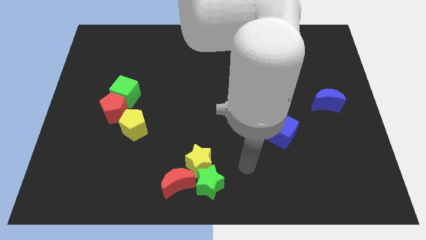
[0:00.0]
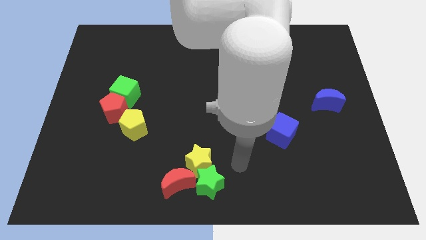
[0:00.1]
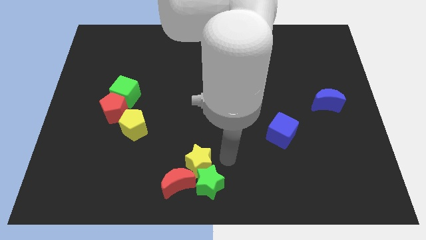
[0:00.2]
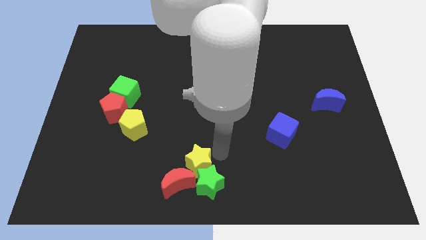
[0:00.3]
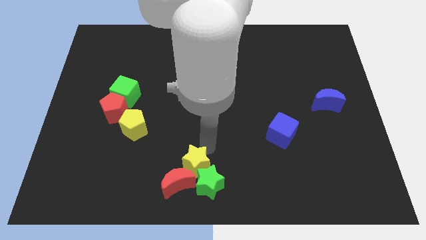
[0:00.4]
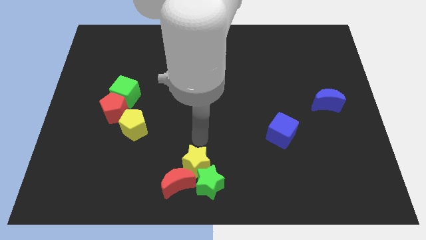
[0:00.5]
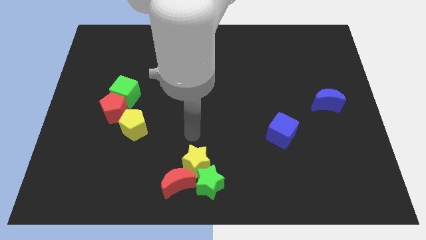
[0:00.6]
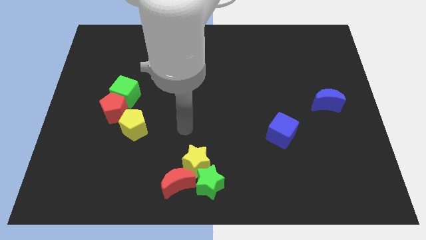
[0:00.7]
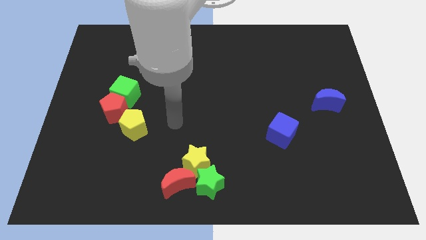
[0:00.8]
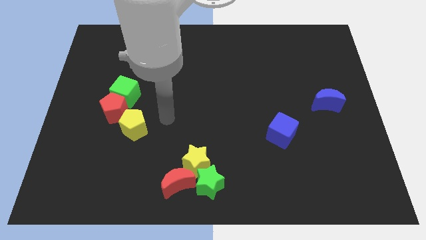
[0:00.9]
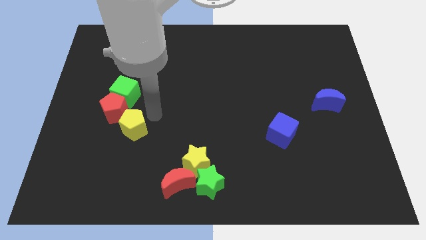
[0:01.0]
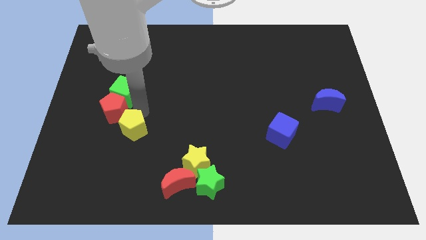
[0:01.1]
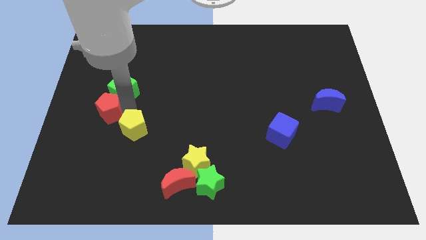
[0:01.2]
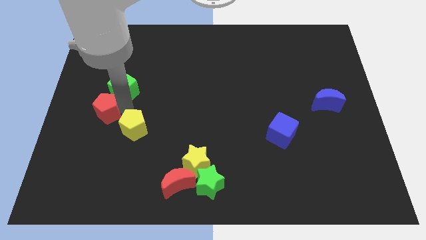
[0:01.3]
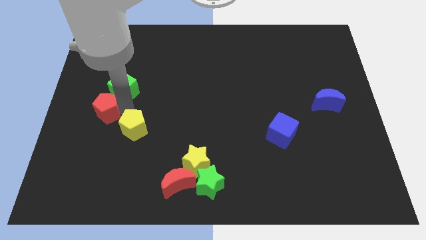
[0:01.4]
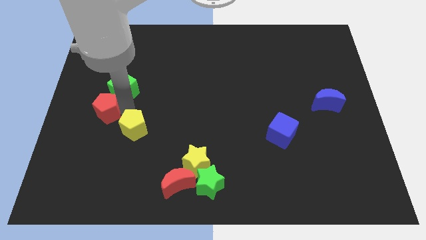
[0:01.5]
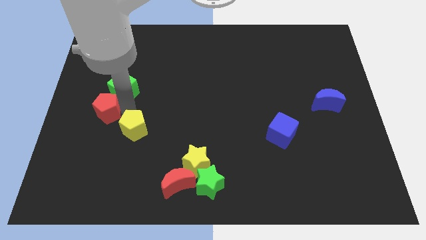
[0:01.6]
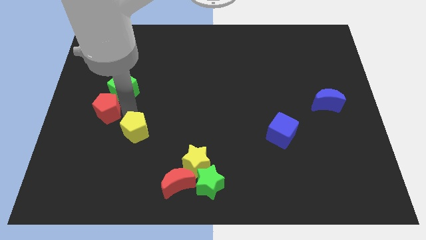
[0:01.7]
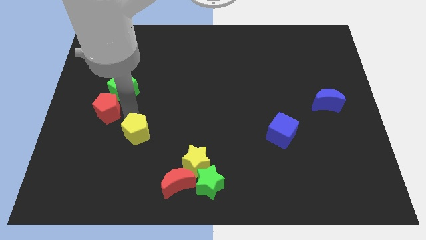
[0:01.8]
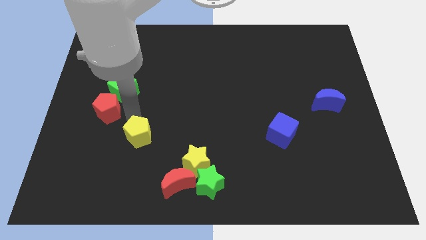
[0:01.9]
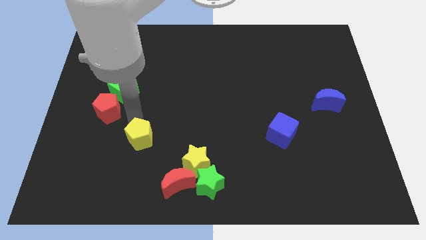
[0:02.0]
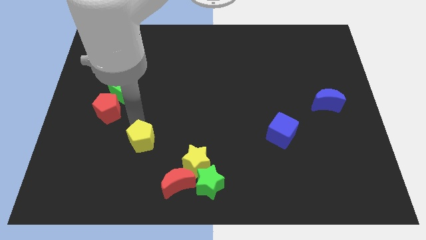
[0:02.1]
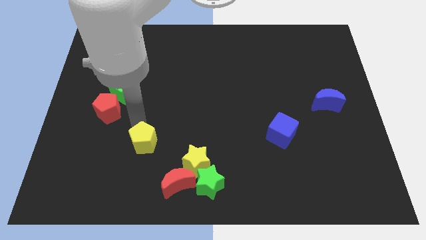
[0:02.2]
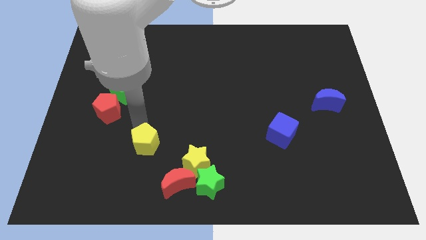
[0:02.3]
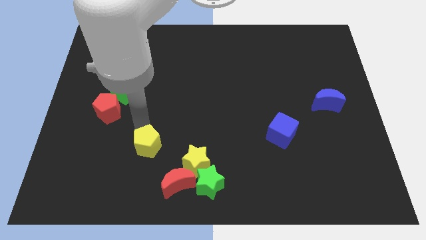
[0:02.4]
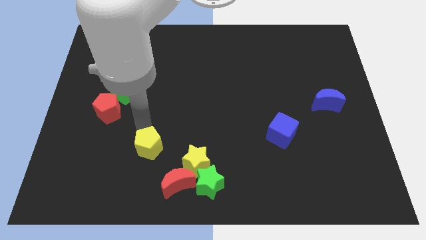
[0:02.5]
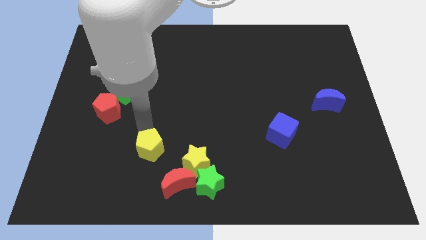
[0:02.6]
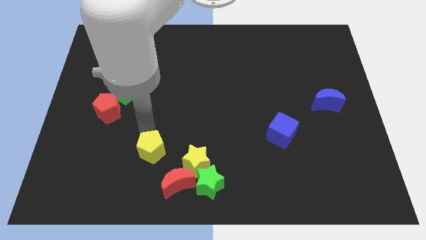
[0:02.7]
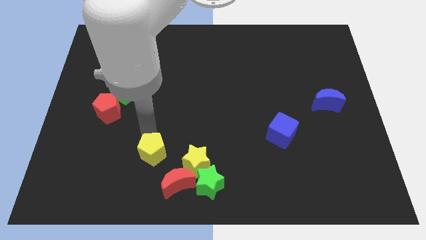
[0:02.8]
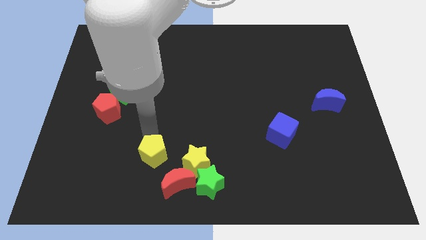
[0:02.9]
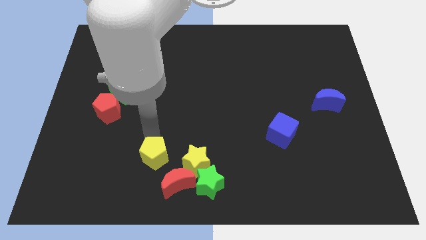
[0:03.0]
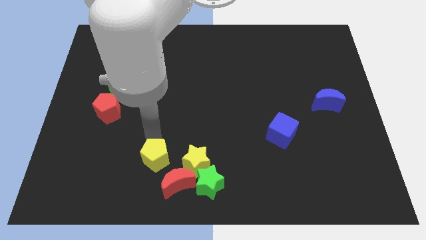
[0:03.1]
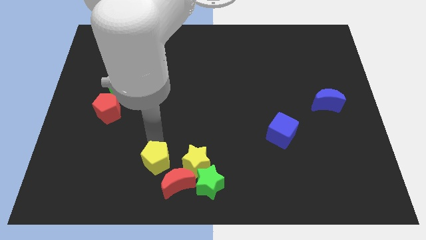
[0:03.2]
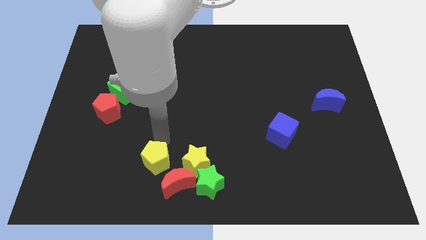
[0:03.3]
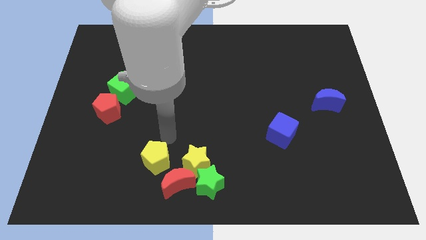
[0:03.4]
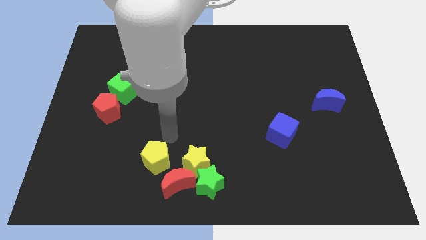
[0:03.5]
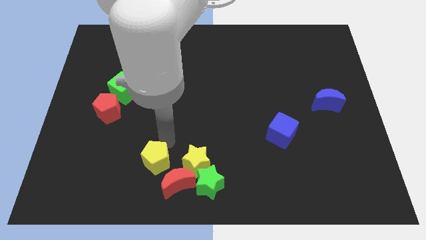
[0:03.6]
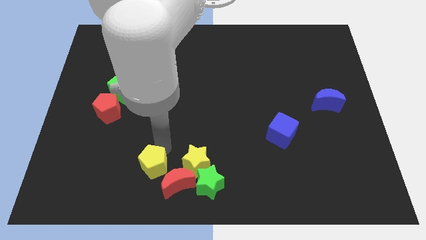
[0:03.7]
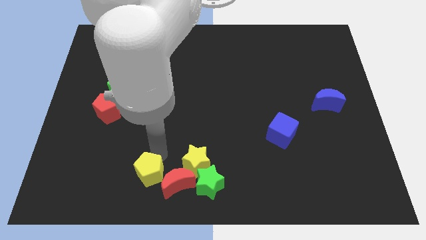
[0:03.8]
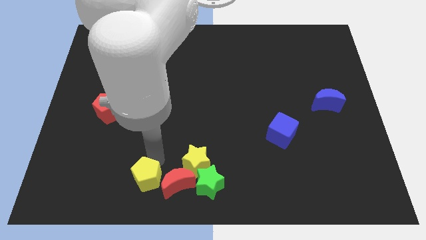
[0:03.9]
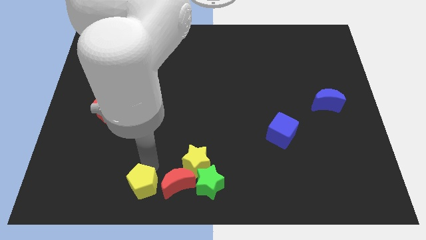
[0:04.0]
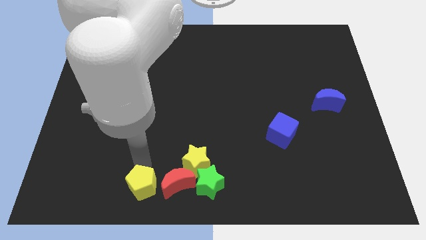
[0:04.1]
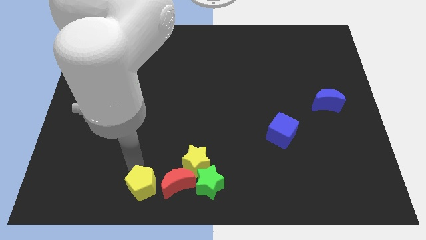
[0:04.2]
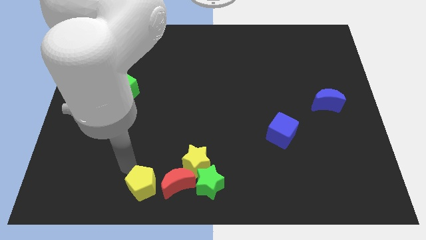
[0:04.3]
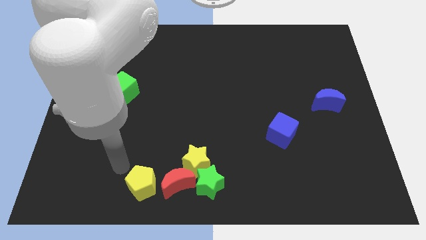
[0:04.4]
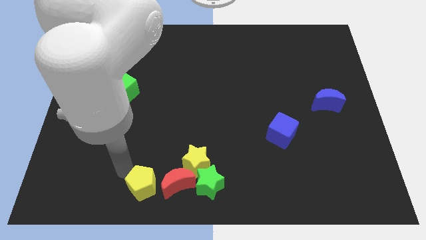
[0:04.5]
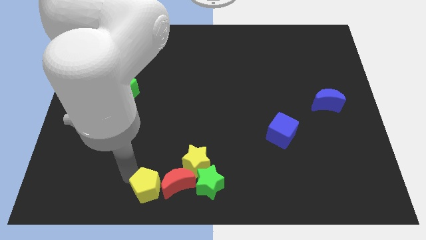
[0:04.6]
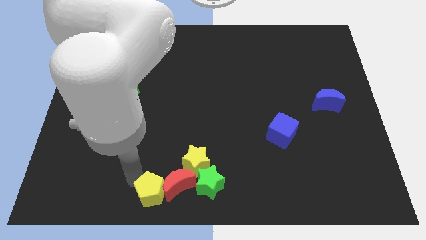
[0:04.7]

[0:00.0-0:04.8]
slide the yellow pentagon to the bottom

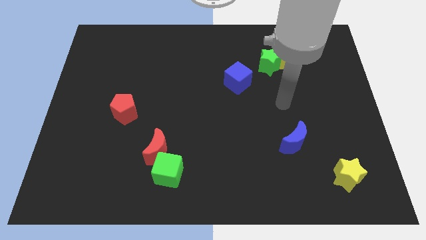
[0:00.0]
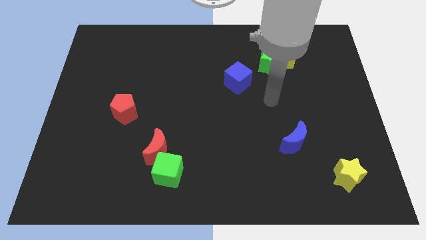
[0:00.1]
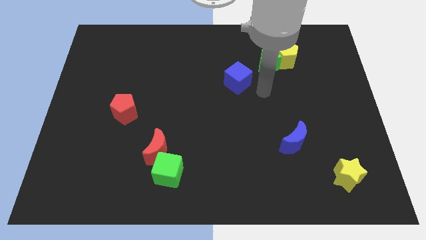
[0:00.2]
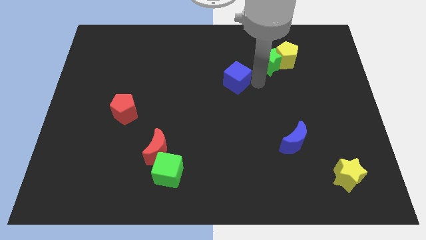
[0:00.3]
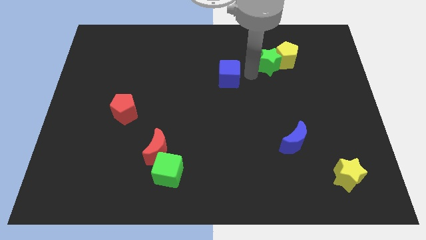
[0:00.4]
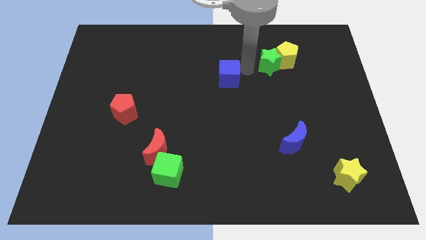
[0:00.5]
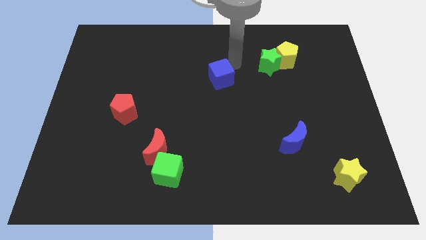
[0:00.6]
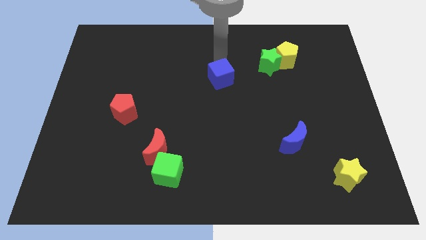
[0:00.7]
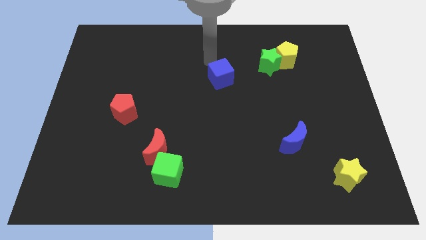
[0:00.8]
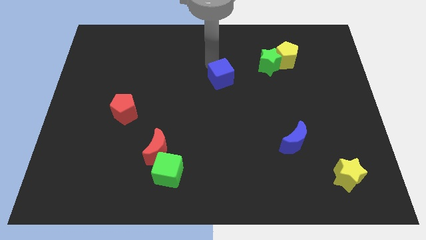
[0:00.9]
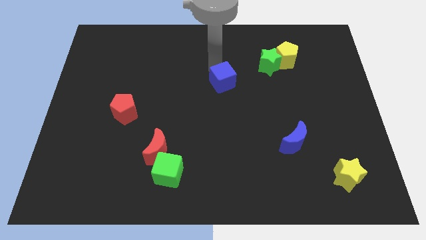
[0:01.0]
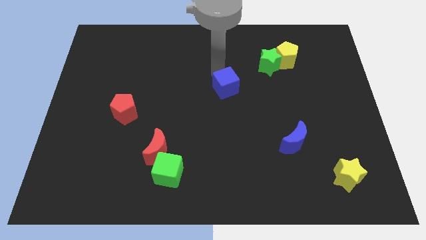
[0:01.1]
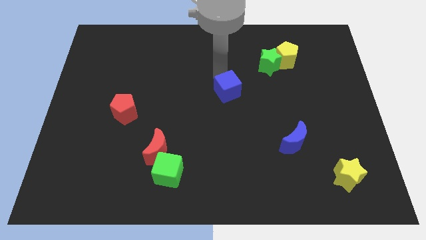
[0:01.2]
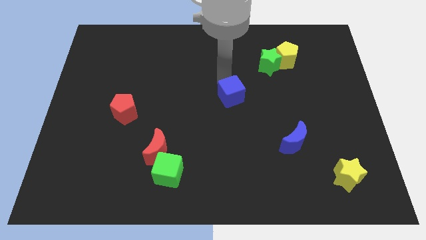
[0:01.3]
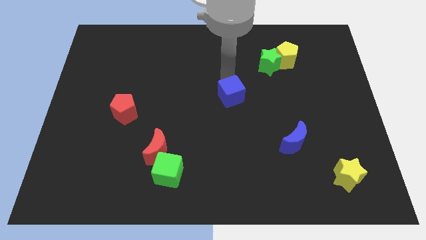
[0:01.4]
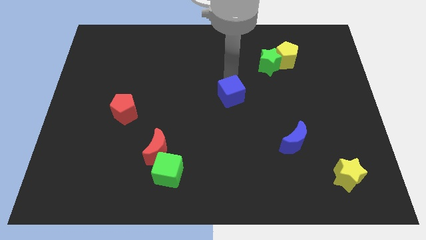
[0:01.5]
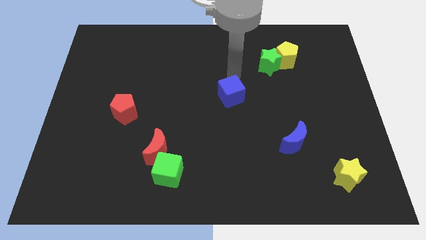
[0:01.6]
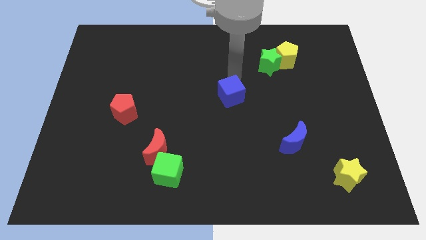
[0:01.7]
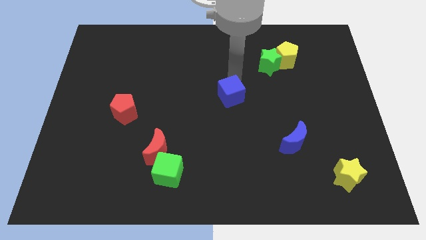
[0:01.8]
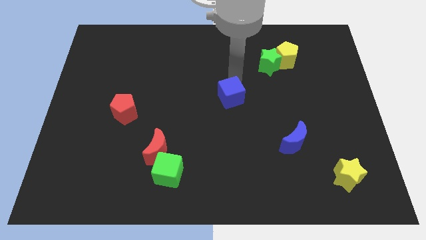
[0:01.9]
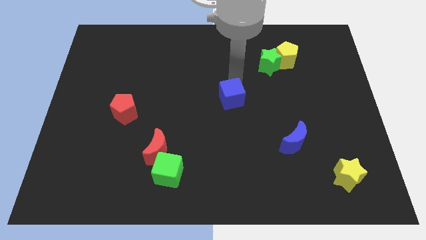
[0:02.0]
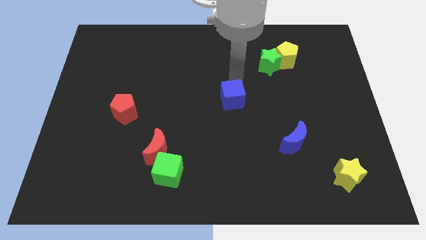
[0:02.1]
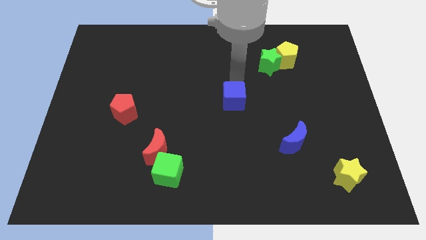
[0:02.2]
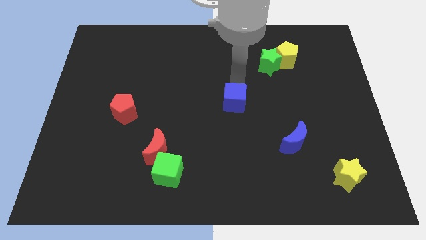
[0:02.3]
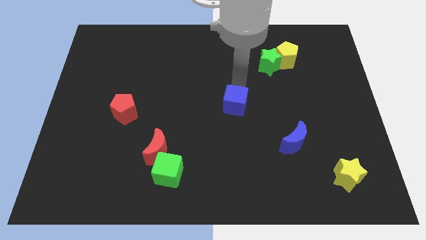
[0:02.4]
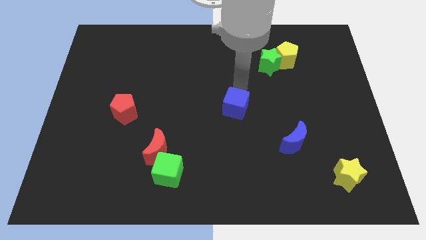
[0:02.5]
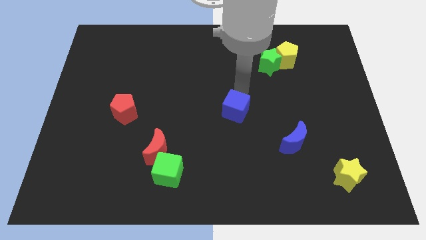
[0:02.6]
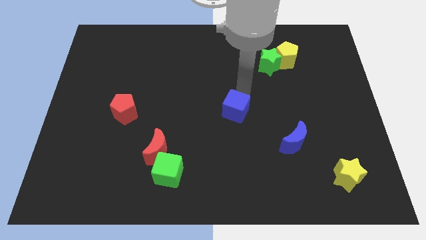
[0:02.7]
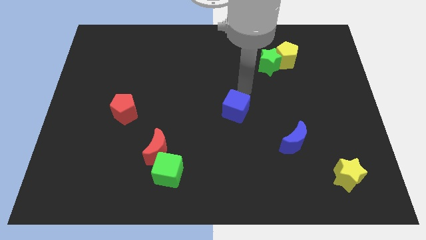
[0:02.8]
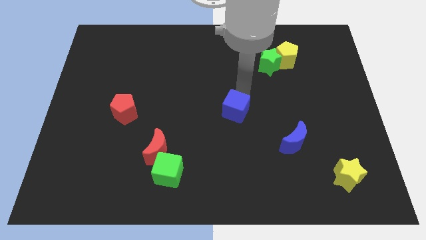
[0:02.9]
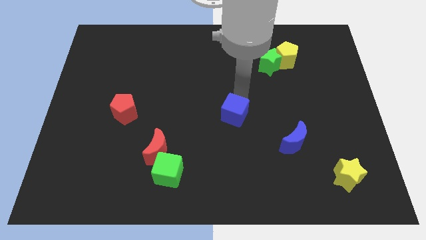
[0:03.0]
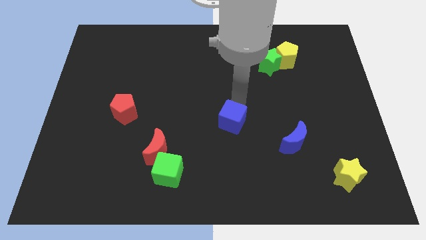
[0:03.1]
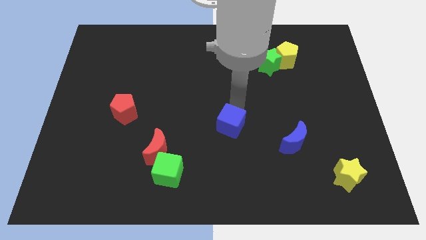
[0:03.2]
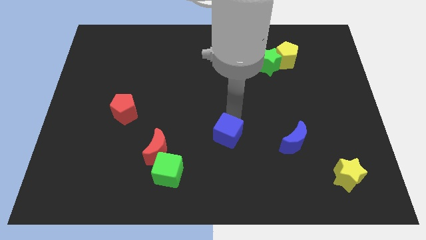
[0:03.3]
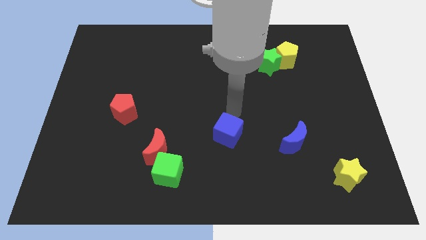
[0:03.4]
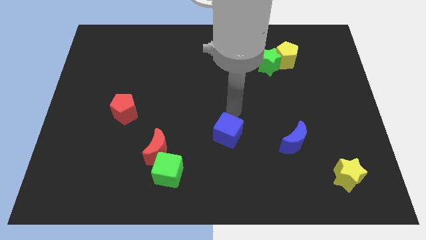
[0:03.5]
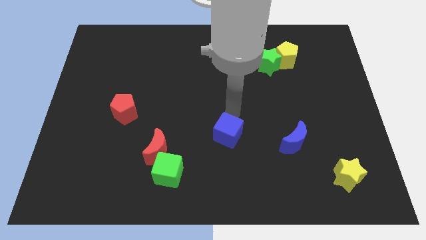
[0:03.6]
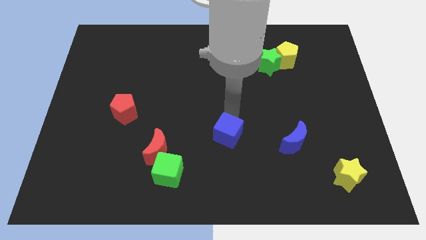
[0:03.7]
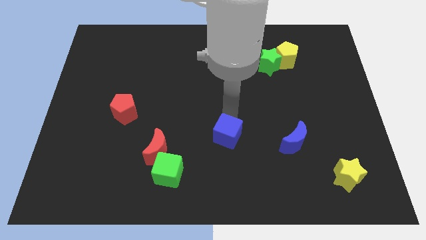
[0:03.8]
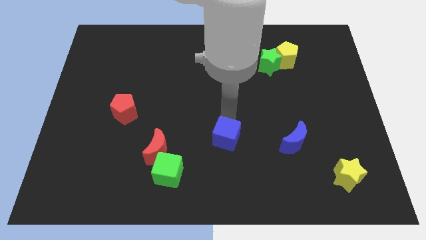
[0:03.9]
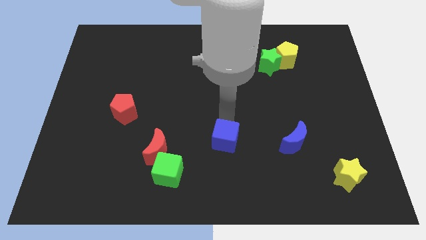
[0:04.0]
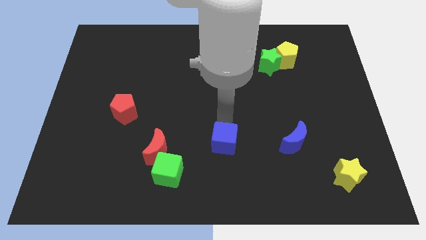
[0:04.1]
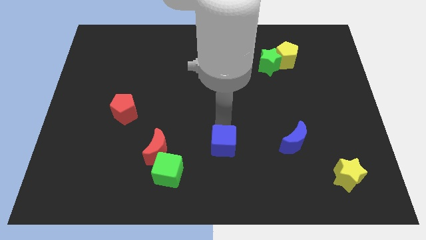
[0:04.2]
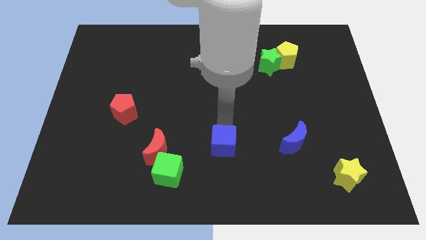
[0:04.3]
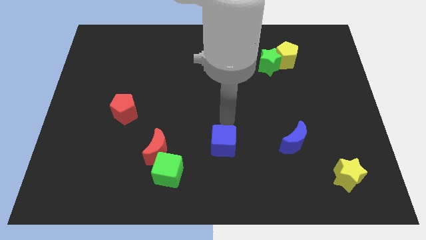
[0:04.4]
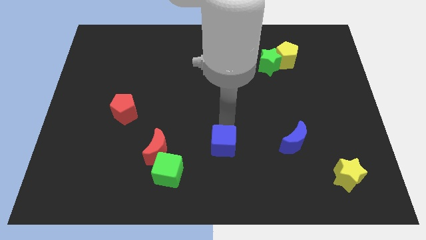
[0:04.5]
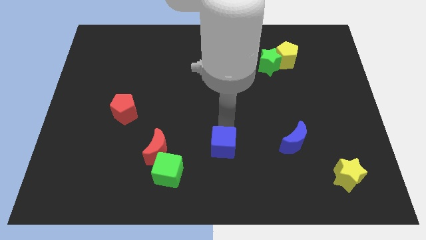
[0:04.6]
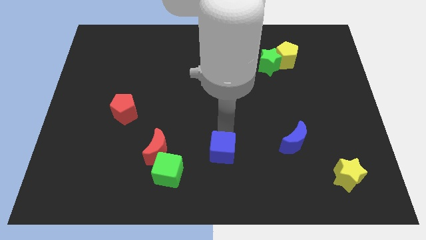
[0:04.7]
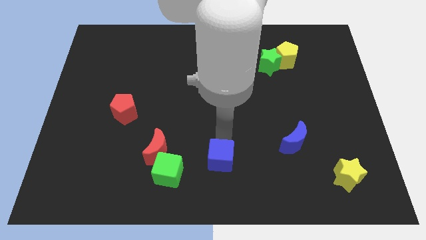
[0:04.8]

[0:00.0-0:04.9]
slide the blue cube to the bottom
